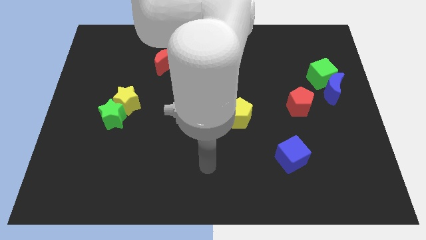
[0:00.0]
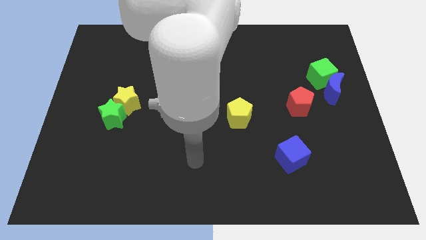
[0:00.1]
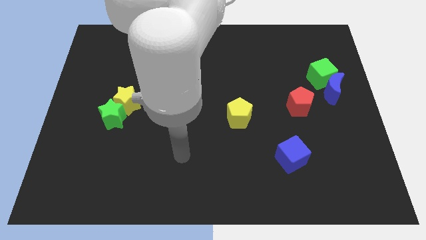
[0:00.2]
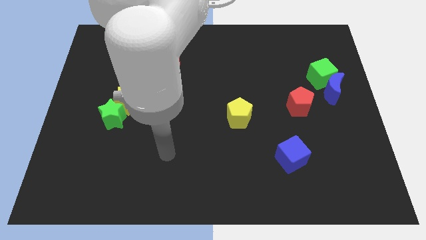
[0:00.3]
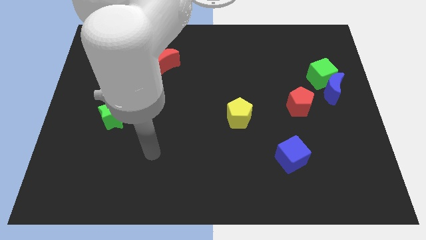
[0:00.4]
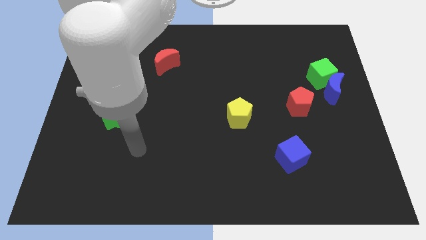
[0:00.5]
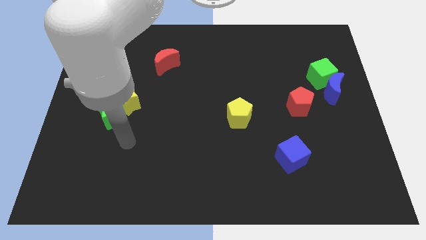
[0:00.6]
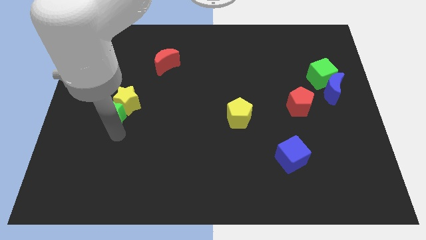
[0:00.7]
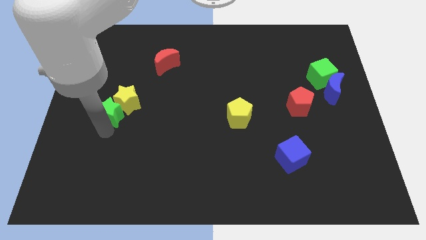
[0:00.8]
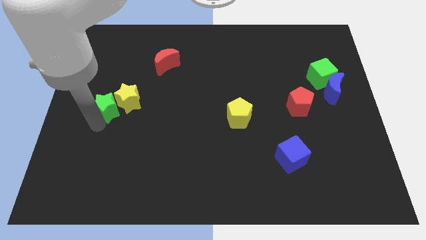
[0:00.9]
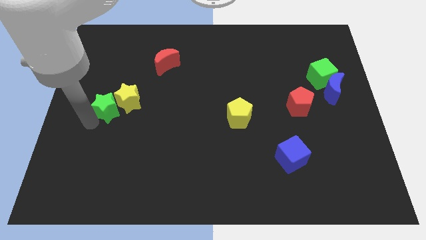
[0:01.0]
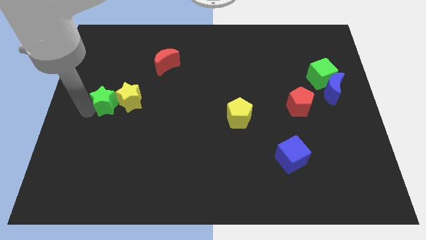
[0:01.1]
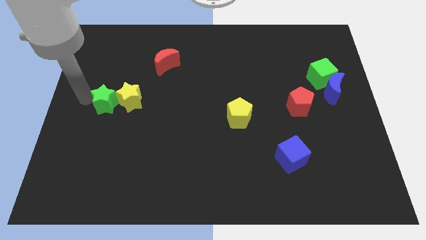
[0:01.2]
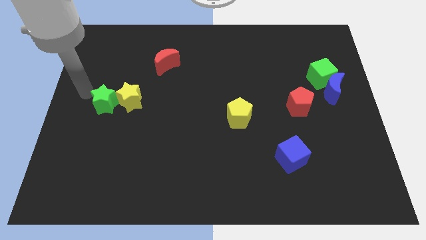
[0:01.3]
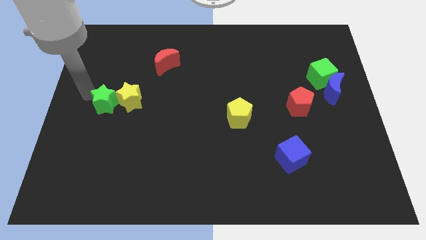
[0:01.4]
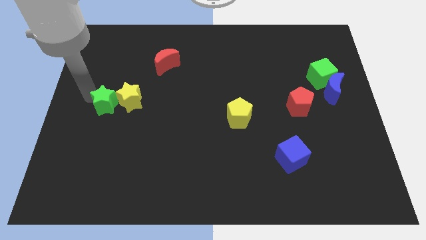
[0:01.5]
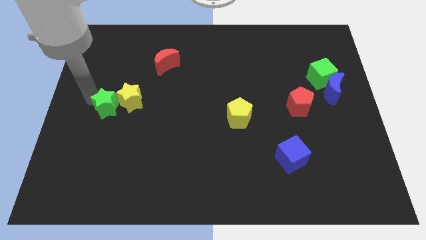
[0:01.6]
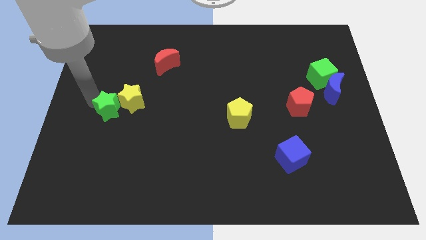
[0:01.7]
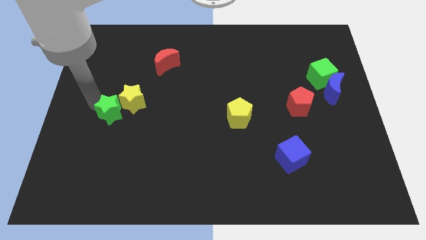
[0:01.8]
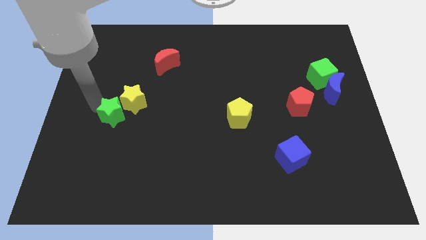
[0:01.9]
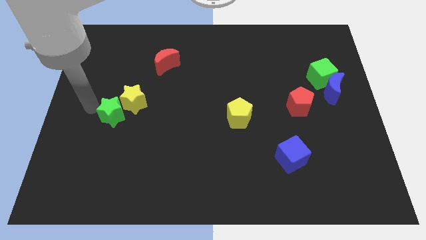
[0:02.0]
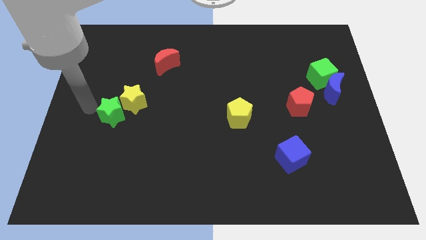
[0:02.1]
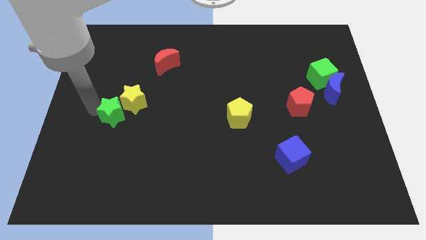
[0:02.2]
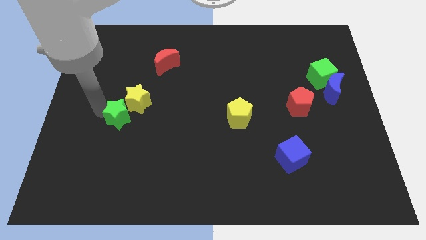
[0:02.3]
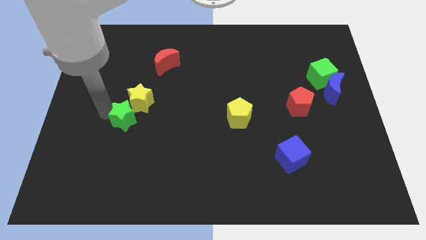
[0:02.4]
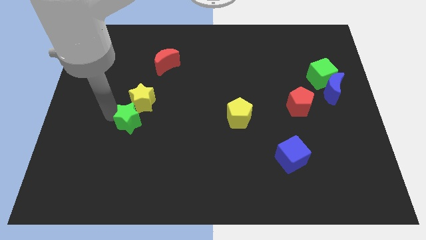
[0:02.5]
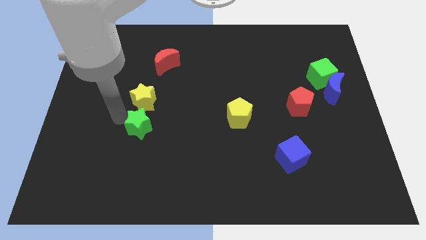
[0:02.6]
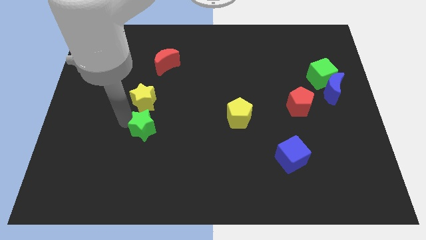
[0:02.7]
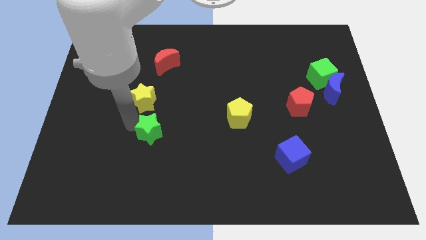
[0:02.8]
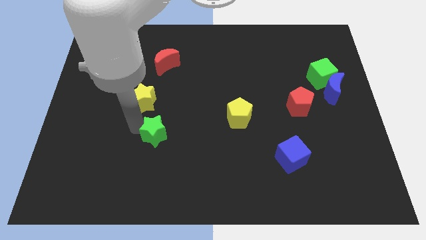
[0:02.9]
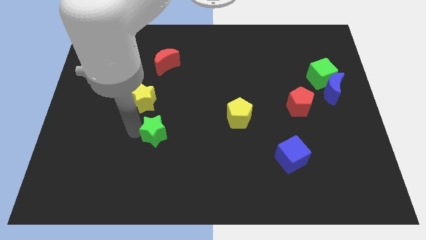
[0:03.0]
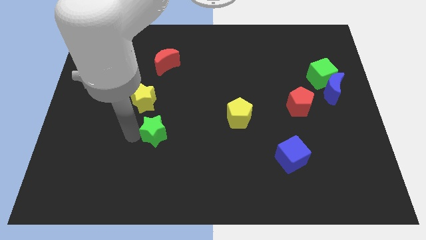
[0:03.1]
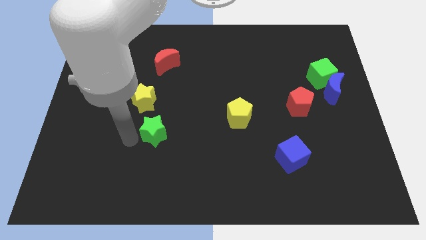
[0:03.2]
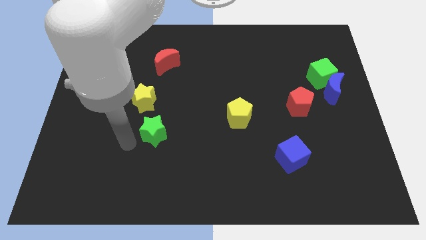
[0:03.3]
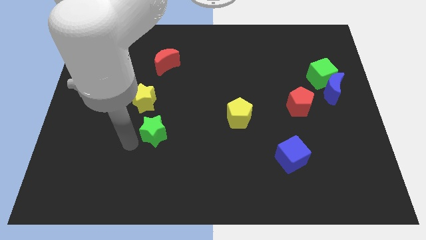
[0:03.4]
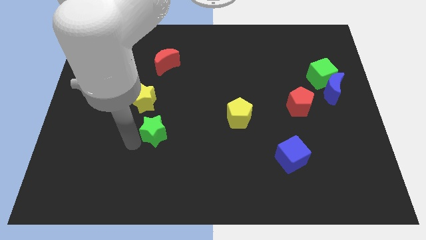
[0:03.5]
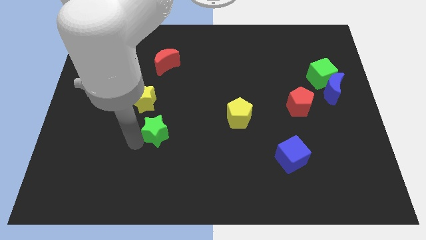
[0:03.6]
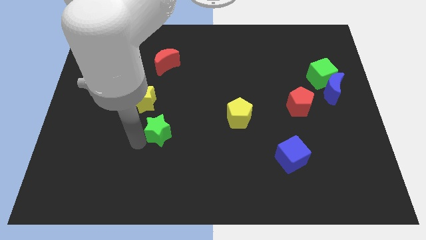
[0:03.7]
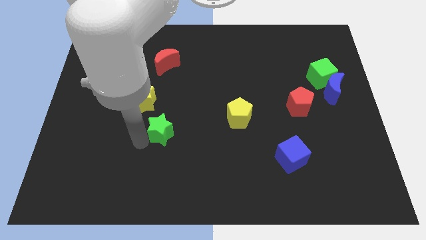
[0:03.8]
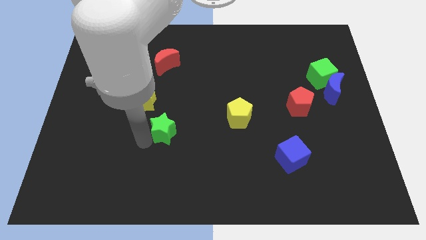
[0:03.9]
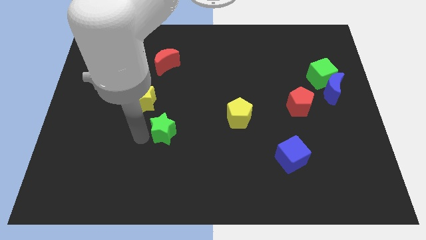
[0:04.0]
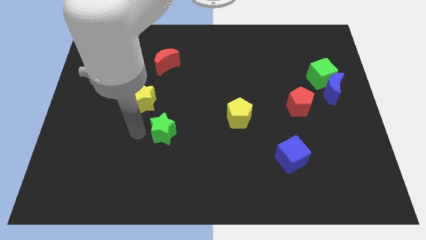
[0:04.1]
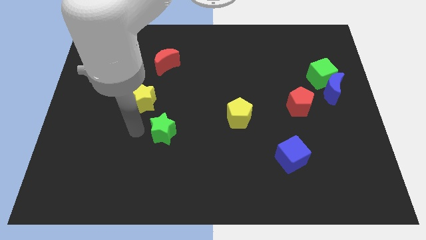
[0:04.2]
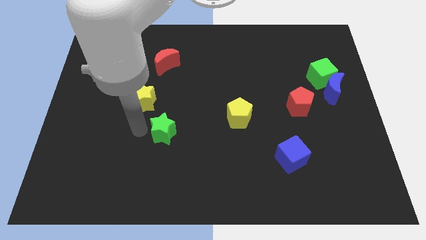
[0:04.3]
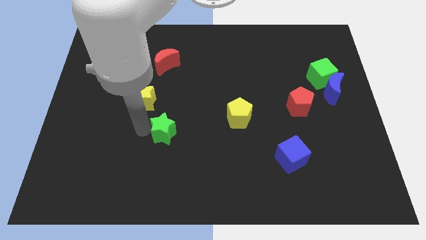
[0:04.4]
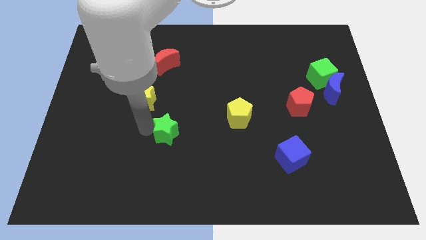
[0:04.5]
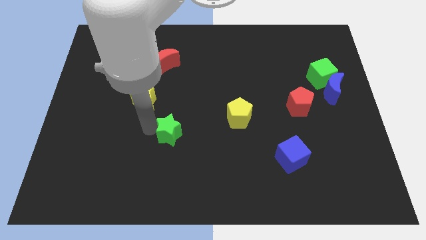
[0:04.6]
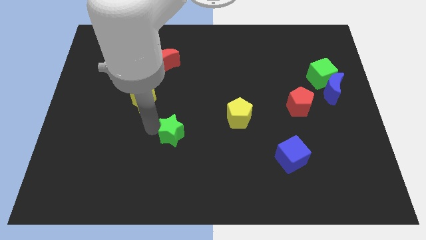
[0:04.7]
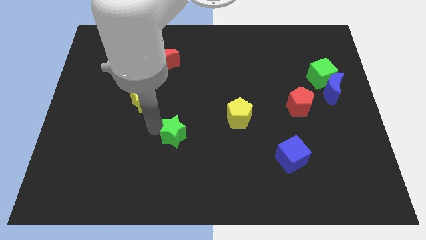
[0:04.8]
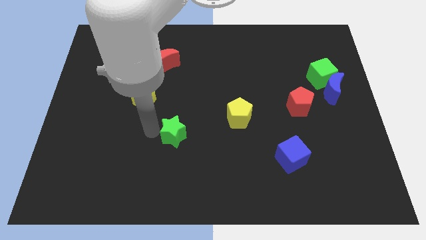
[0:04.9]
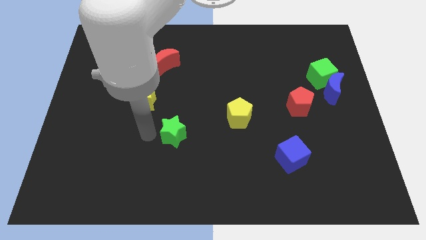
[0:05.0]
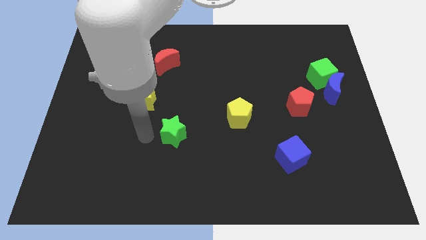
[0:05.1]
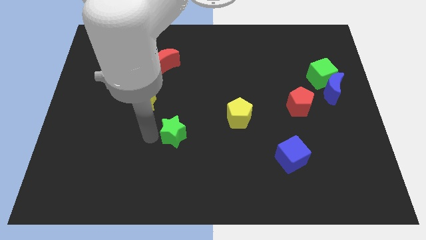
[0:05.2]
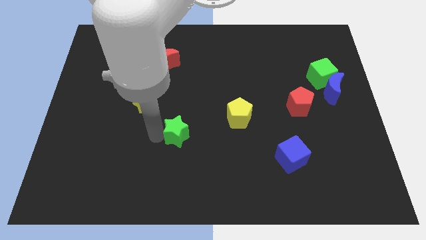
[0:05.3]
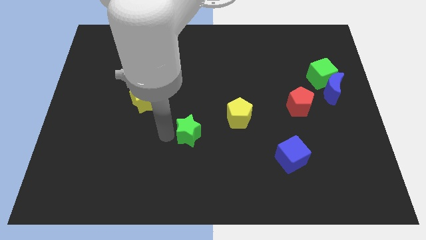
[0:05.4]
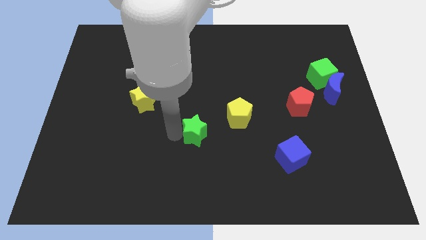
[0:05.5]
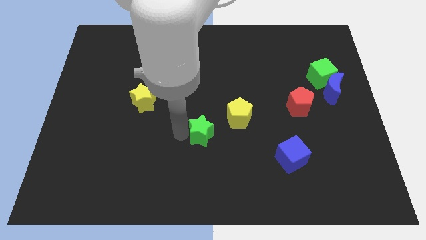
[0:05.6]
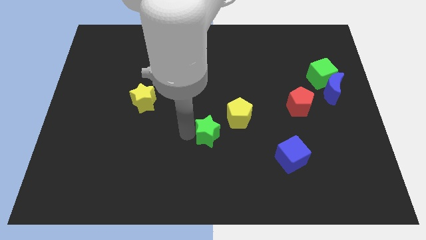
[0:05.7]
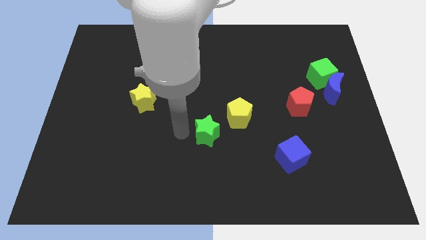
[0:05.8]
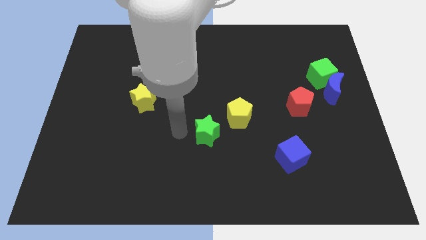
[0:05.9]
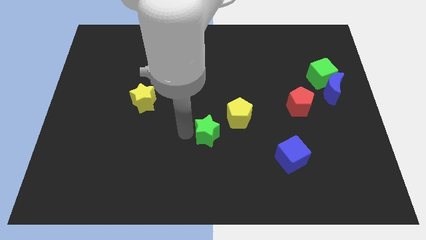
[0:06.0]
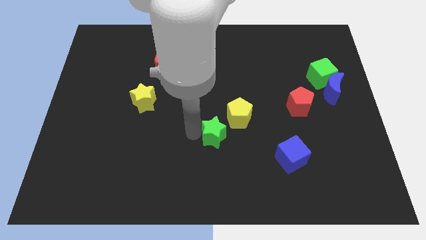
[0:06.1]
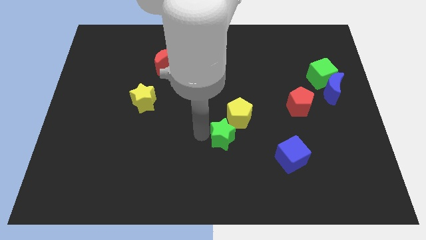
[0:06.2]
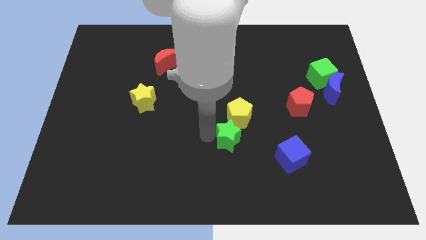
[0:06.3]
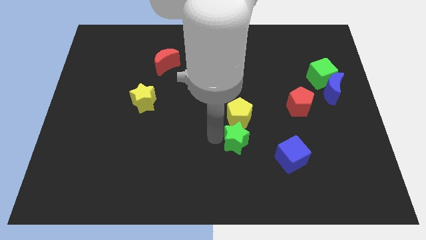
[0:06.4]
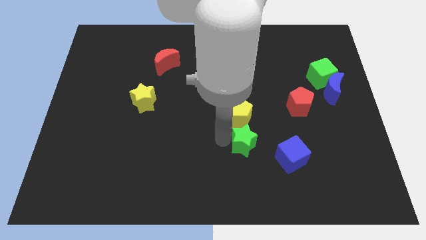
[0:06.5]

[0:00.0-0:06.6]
slide the green star to the bottom right side of the yellow pentagon

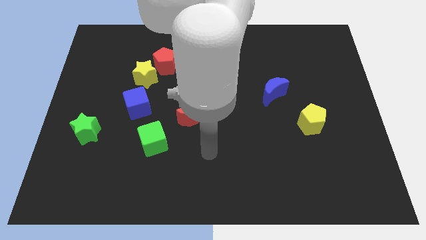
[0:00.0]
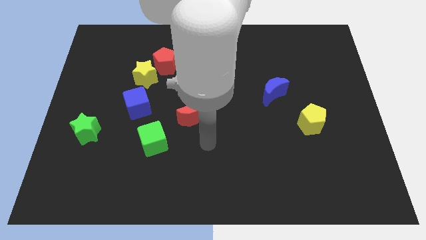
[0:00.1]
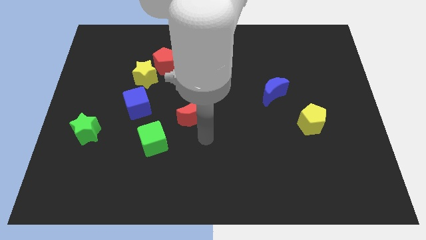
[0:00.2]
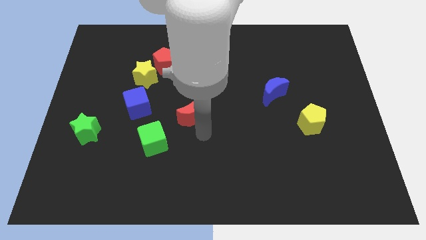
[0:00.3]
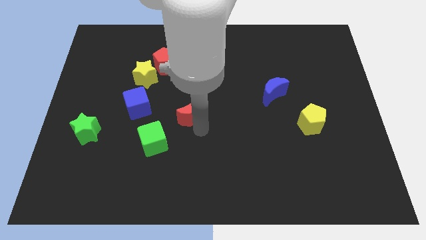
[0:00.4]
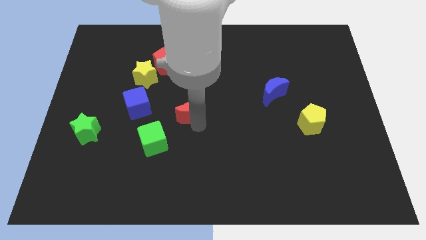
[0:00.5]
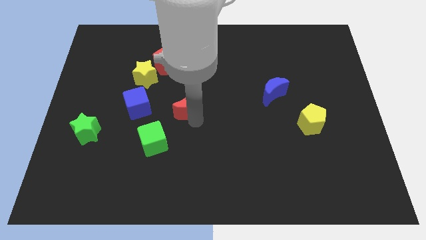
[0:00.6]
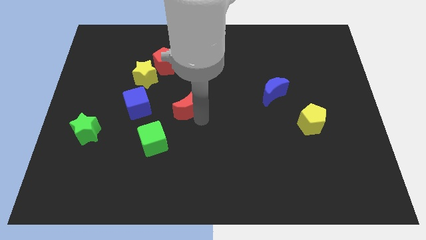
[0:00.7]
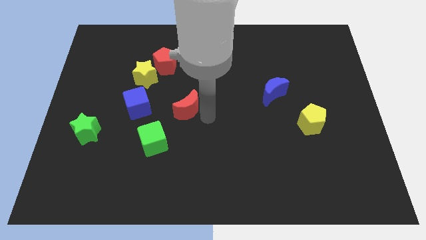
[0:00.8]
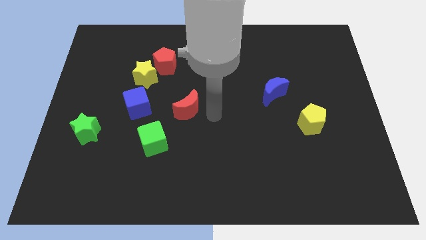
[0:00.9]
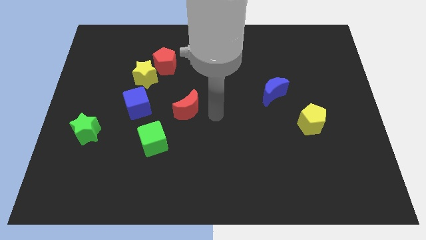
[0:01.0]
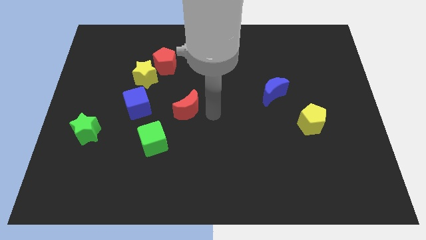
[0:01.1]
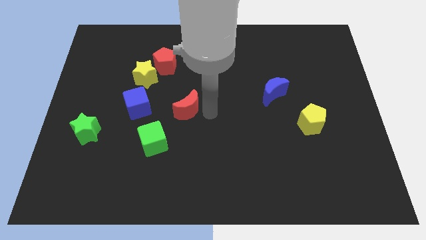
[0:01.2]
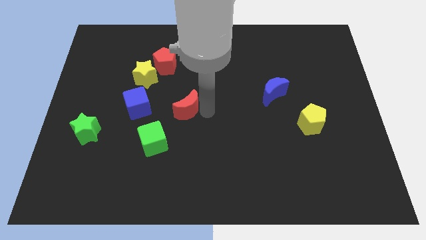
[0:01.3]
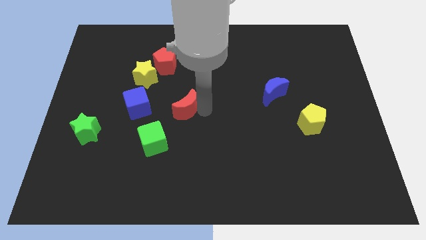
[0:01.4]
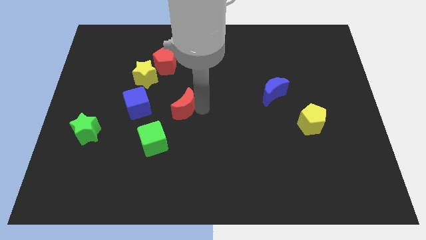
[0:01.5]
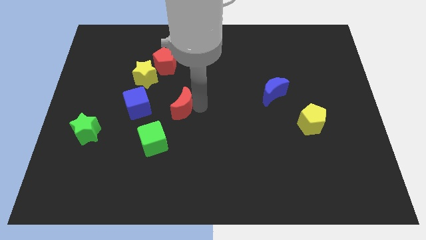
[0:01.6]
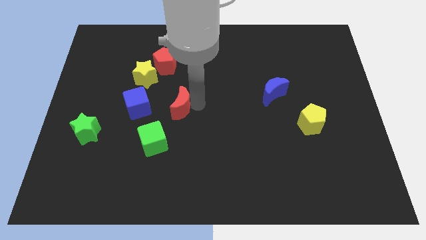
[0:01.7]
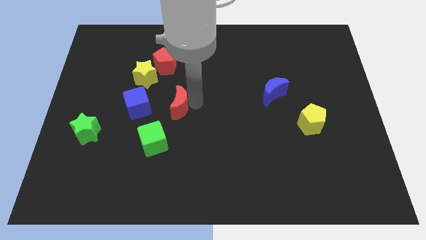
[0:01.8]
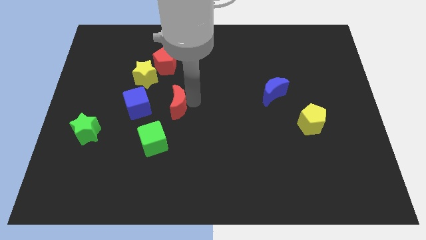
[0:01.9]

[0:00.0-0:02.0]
push the red moon to the top of the green cube
